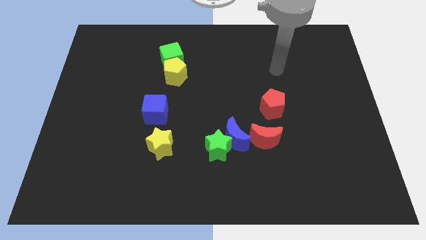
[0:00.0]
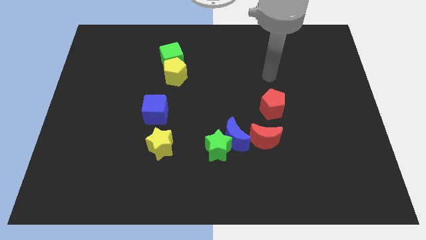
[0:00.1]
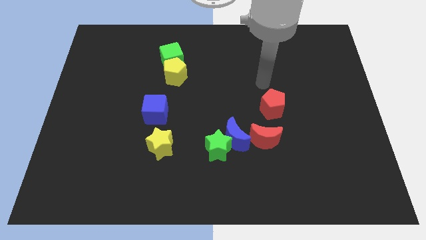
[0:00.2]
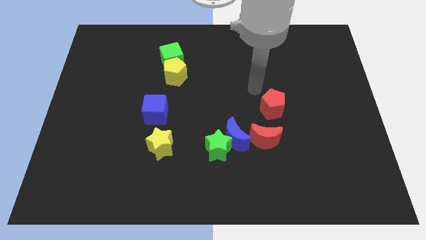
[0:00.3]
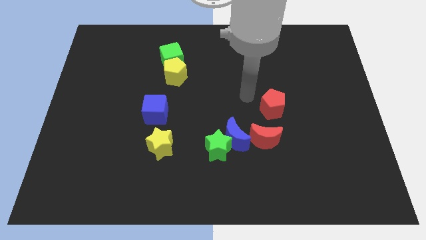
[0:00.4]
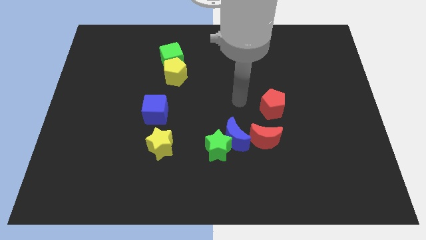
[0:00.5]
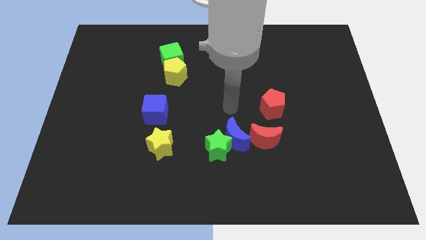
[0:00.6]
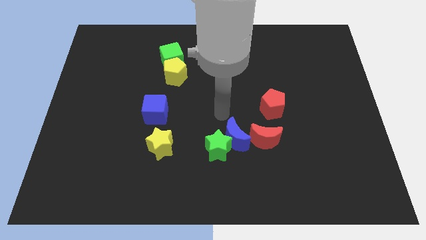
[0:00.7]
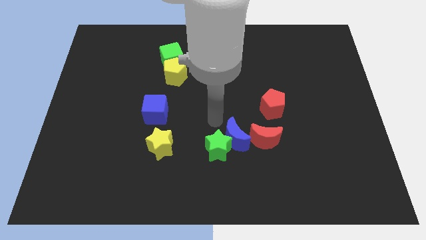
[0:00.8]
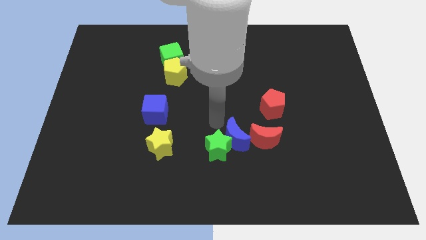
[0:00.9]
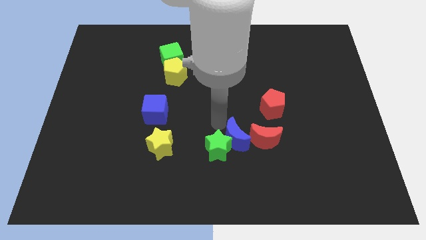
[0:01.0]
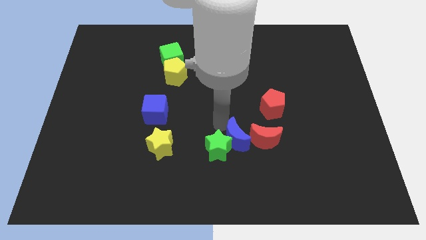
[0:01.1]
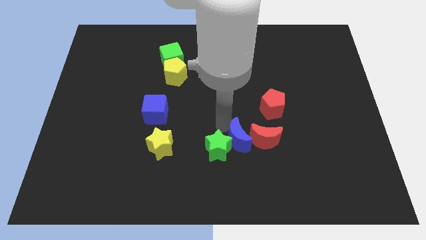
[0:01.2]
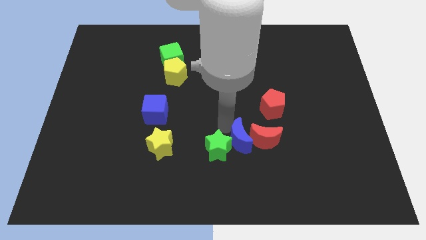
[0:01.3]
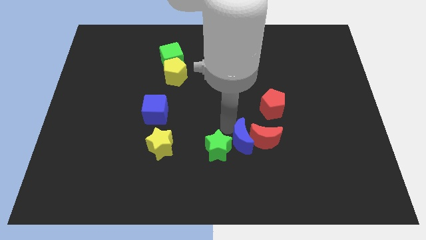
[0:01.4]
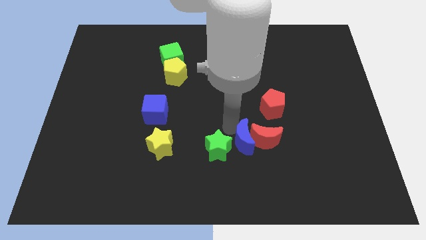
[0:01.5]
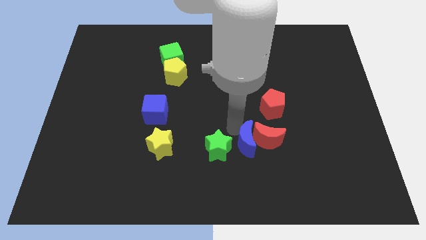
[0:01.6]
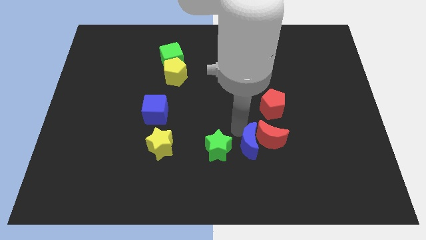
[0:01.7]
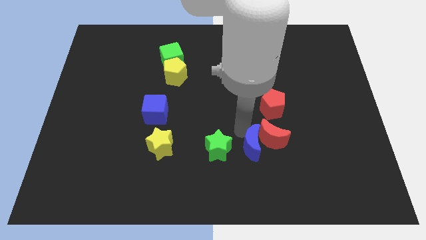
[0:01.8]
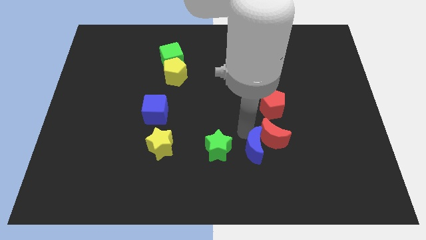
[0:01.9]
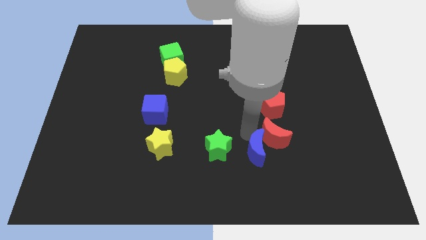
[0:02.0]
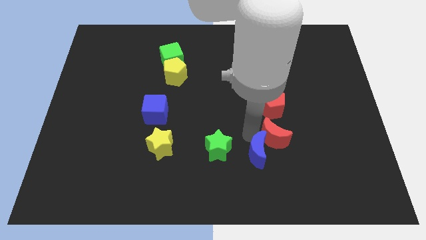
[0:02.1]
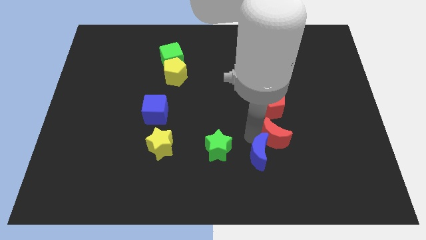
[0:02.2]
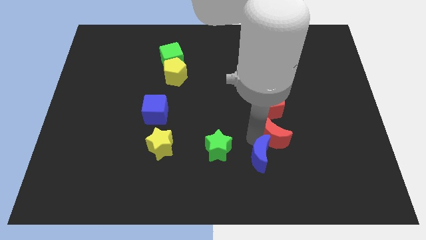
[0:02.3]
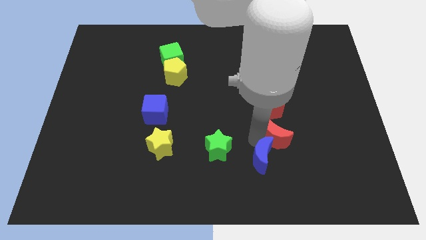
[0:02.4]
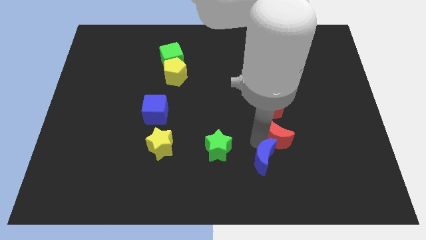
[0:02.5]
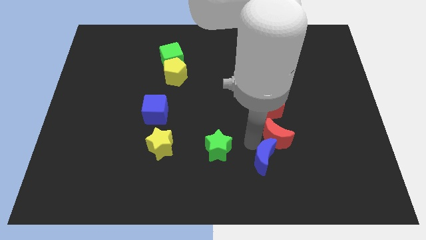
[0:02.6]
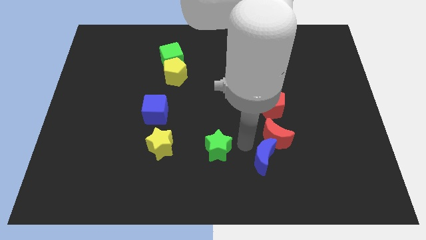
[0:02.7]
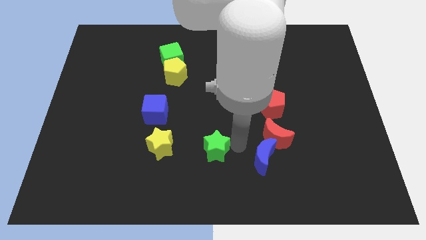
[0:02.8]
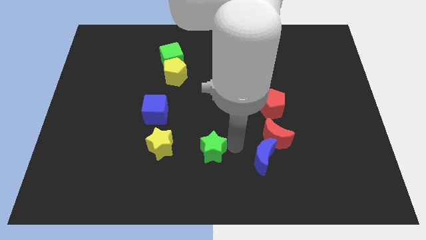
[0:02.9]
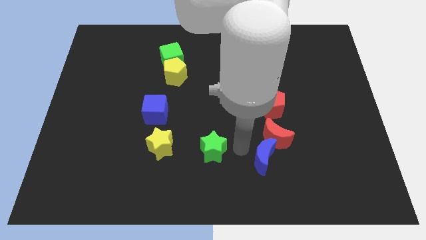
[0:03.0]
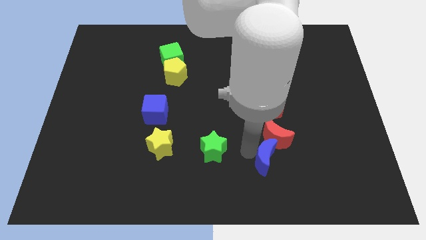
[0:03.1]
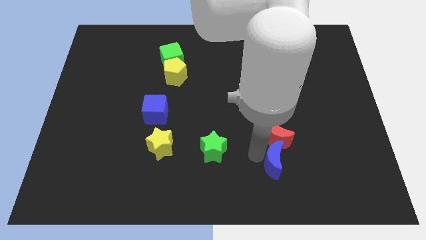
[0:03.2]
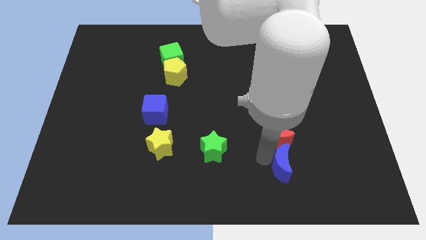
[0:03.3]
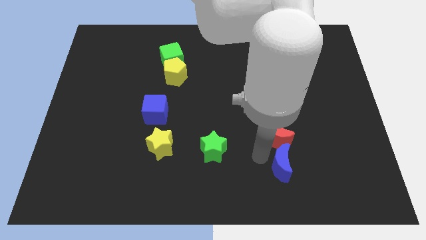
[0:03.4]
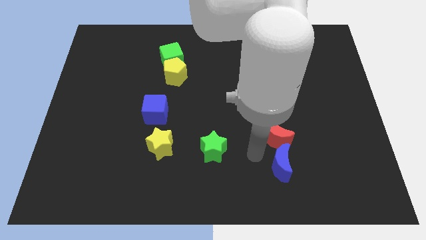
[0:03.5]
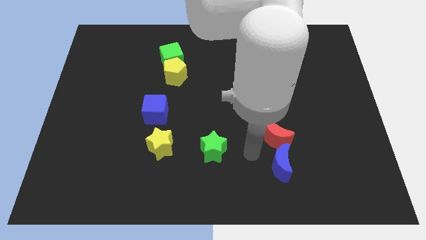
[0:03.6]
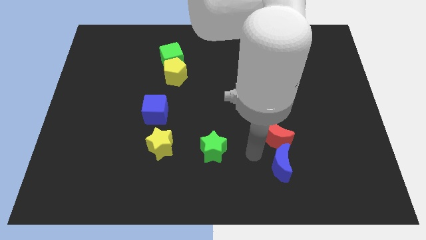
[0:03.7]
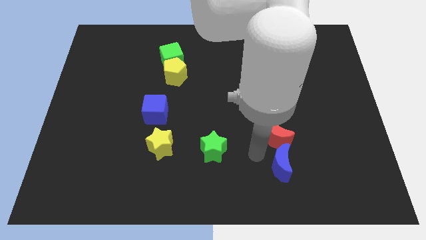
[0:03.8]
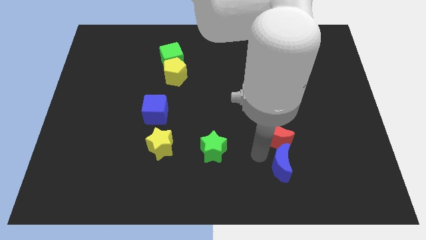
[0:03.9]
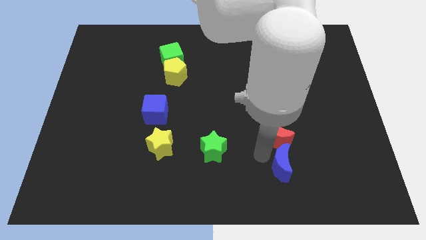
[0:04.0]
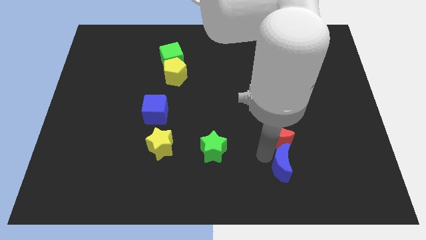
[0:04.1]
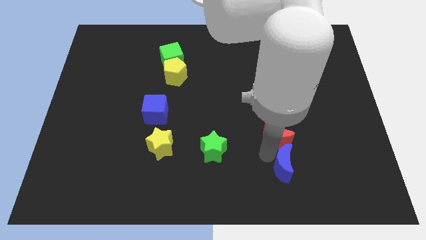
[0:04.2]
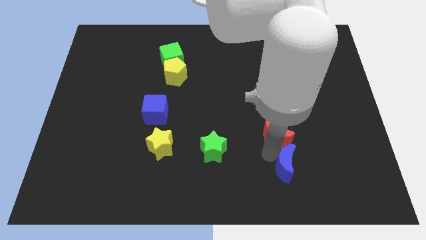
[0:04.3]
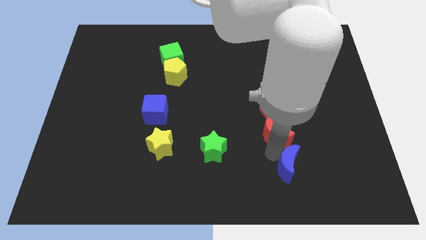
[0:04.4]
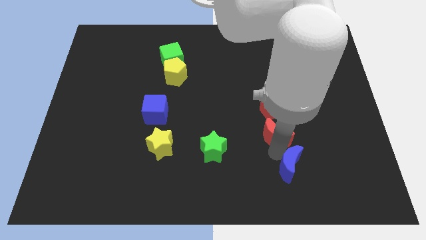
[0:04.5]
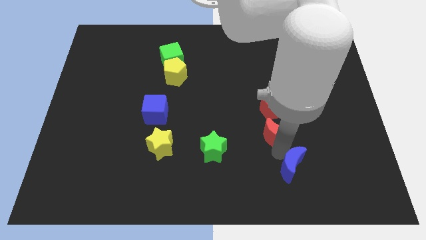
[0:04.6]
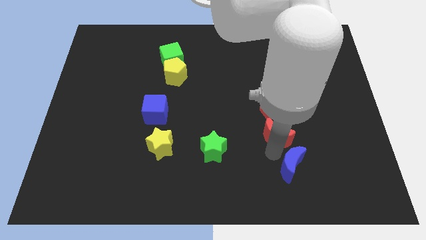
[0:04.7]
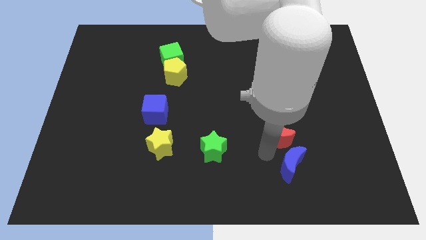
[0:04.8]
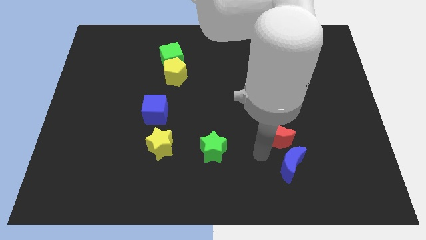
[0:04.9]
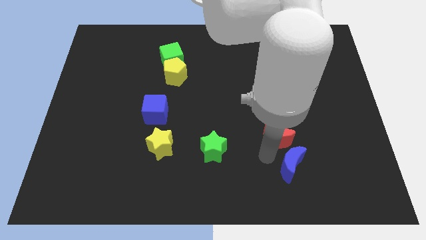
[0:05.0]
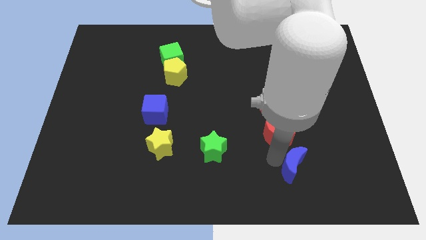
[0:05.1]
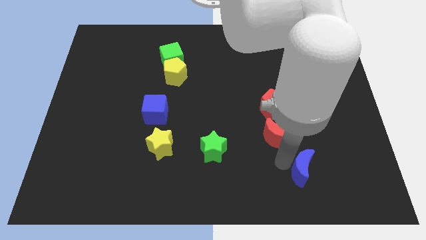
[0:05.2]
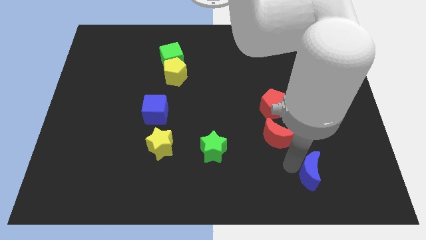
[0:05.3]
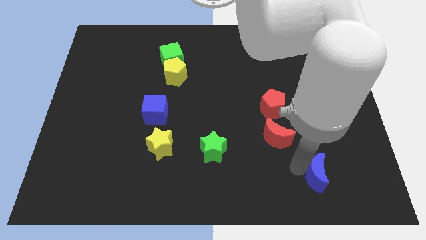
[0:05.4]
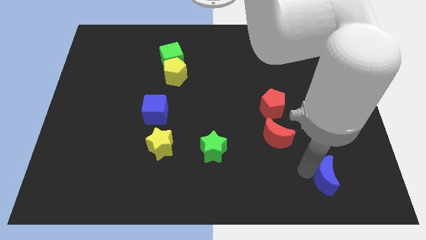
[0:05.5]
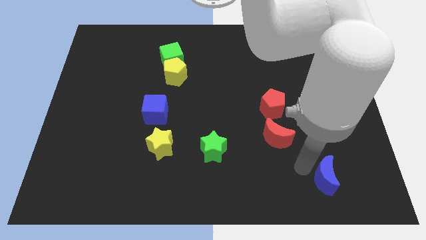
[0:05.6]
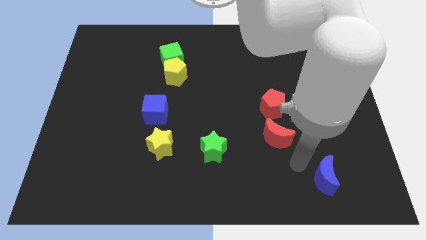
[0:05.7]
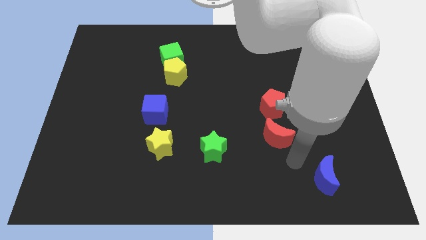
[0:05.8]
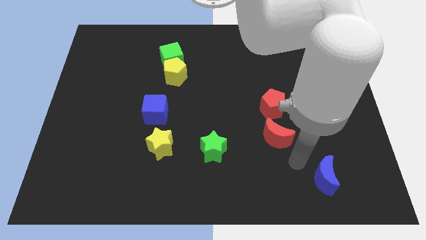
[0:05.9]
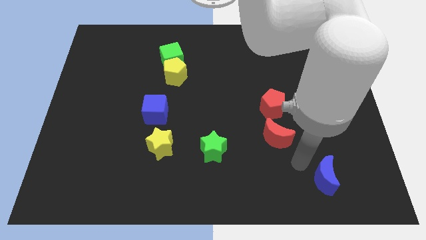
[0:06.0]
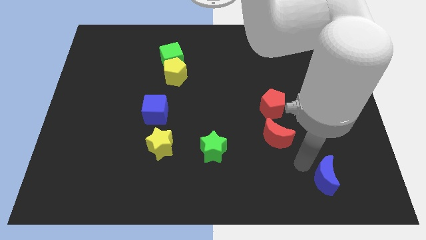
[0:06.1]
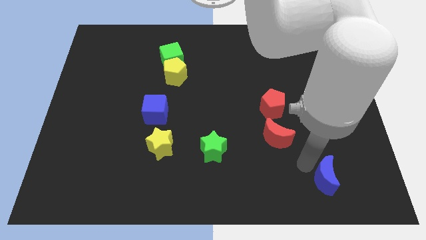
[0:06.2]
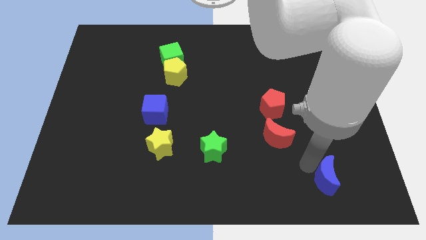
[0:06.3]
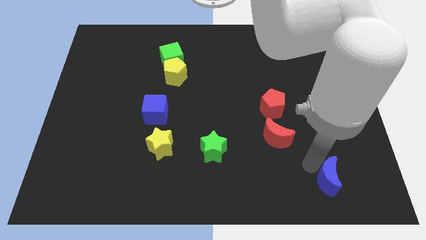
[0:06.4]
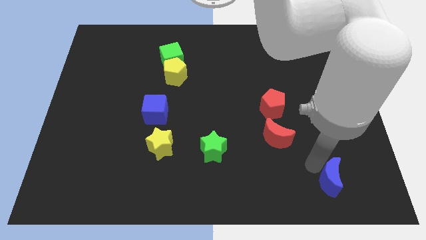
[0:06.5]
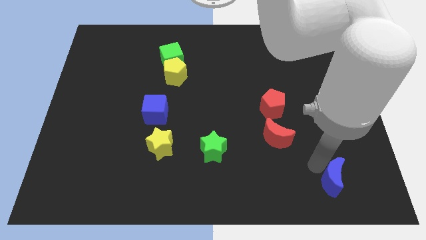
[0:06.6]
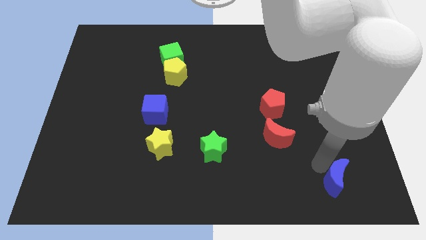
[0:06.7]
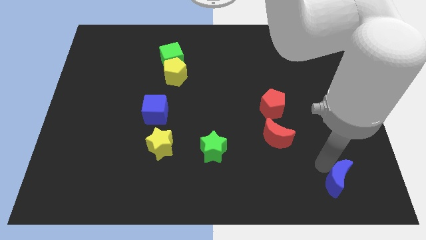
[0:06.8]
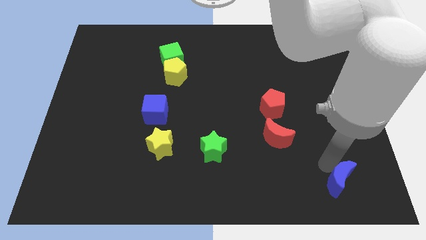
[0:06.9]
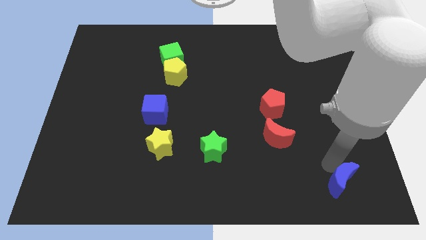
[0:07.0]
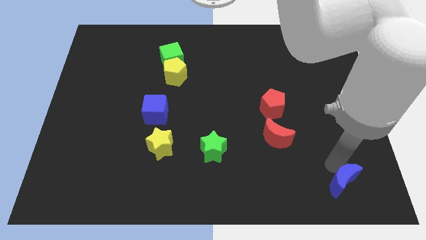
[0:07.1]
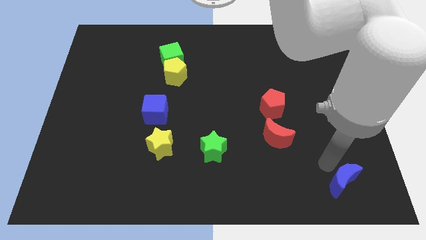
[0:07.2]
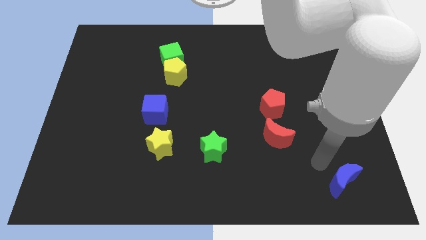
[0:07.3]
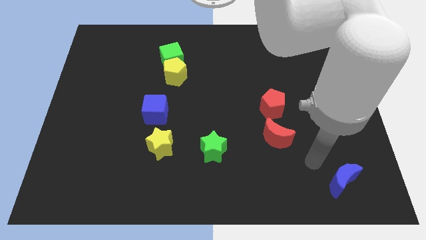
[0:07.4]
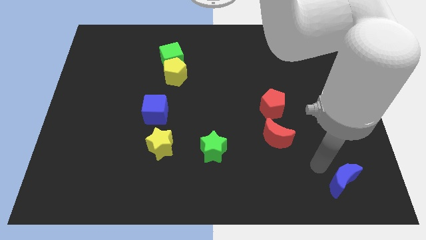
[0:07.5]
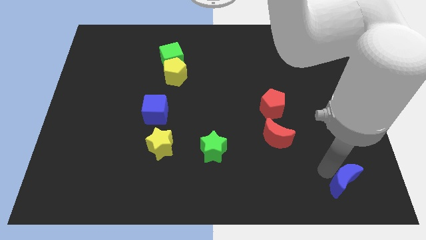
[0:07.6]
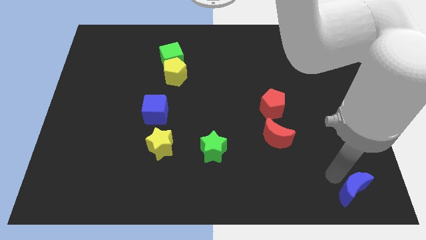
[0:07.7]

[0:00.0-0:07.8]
move the blue moon to the bottom right
